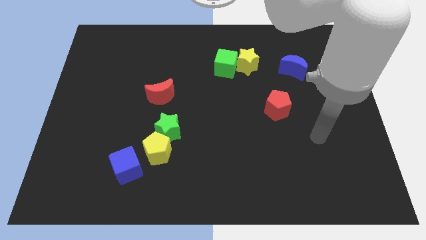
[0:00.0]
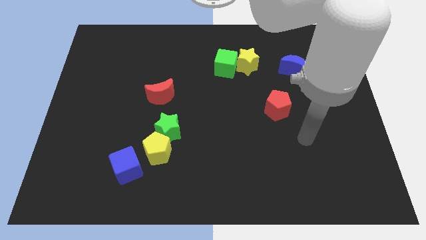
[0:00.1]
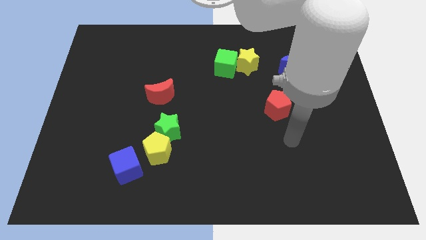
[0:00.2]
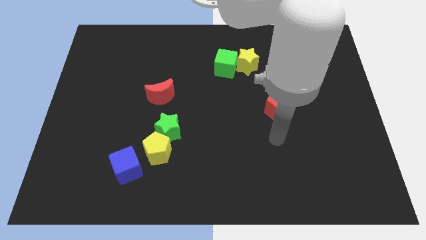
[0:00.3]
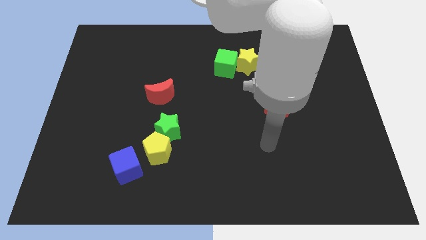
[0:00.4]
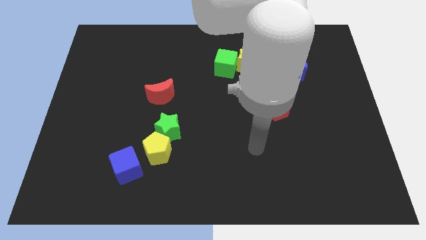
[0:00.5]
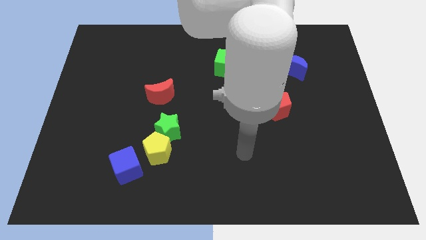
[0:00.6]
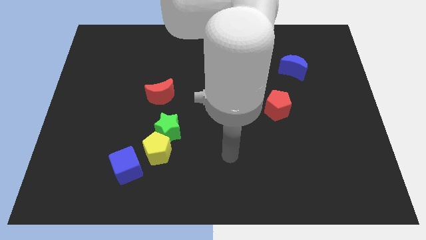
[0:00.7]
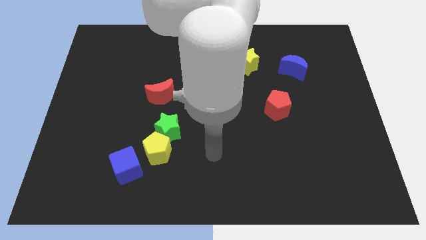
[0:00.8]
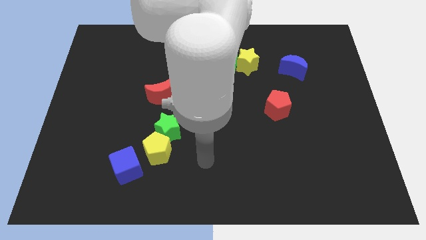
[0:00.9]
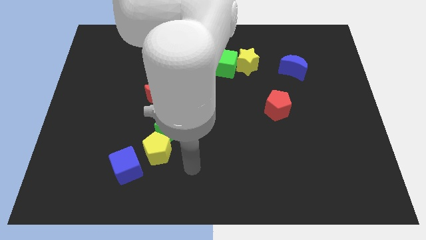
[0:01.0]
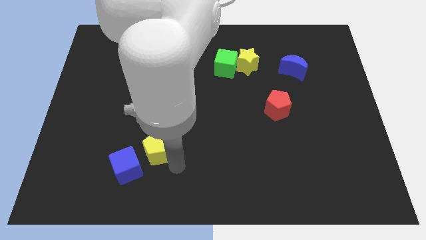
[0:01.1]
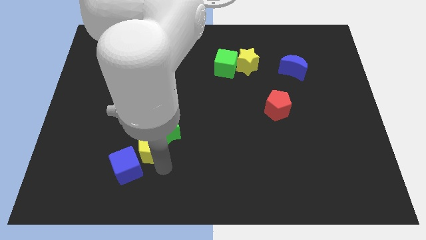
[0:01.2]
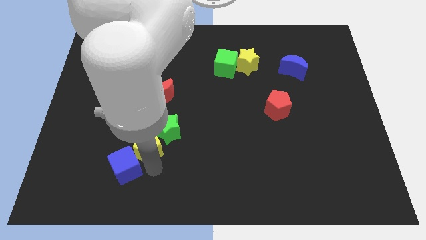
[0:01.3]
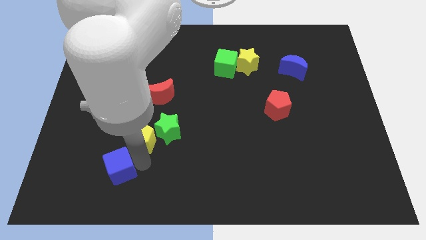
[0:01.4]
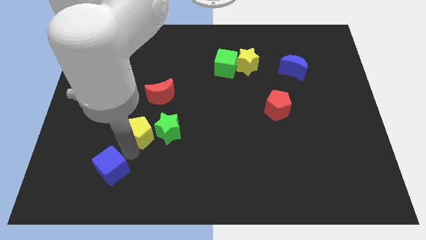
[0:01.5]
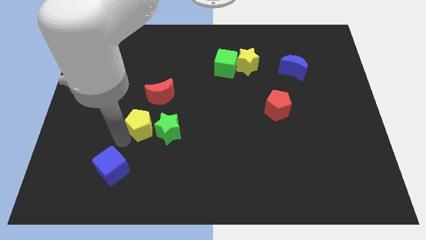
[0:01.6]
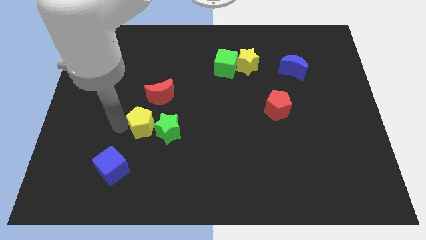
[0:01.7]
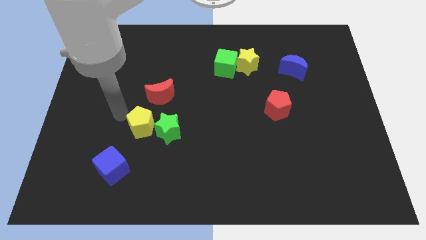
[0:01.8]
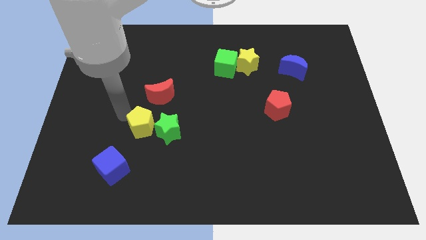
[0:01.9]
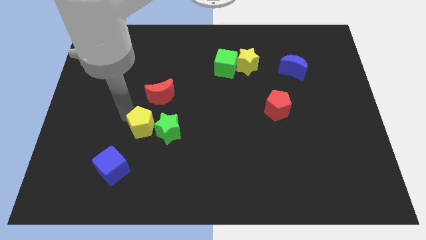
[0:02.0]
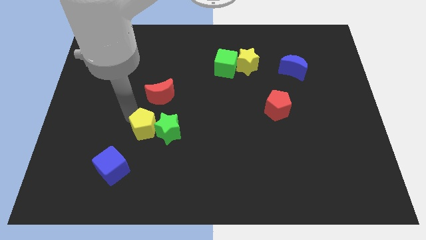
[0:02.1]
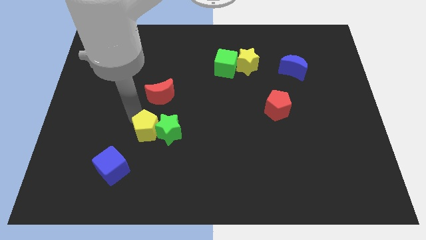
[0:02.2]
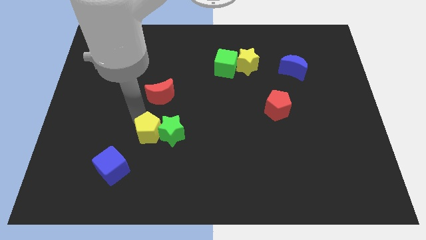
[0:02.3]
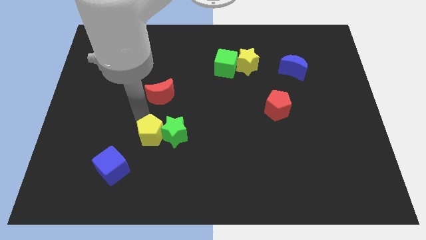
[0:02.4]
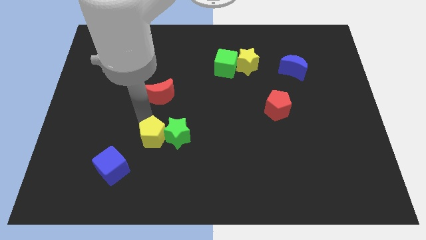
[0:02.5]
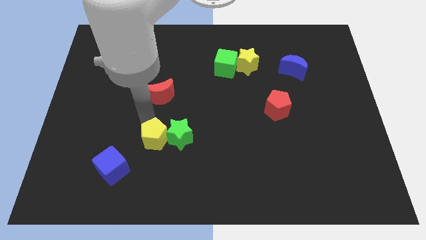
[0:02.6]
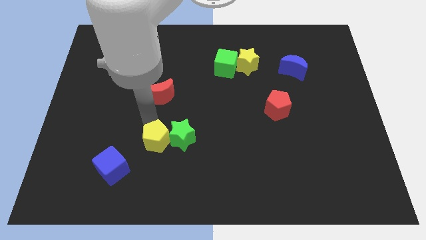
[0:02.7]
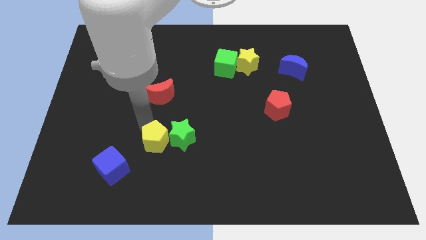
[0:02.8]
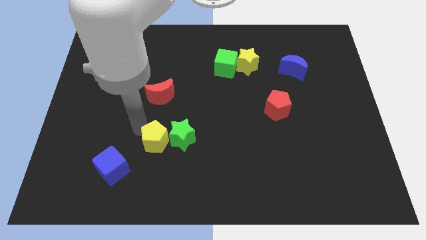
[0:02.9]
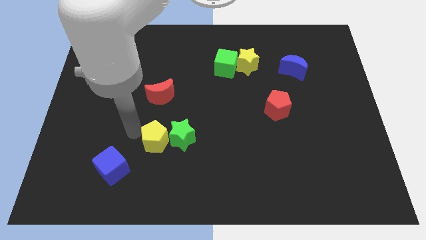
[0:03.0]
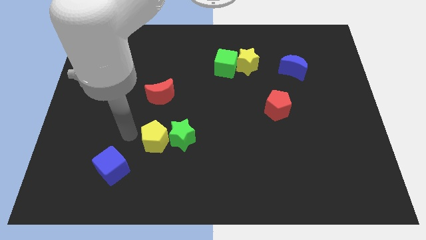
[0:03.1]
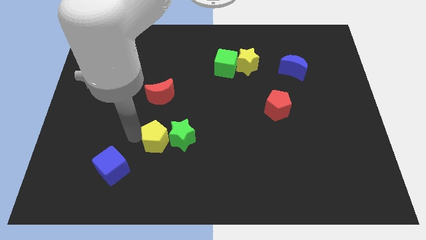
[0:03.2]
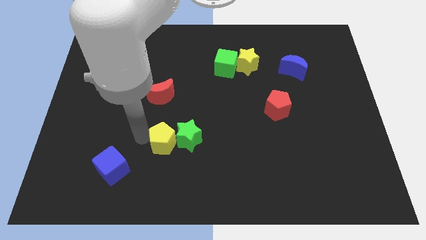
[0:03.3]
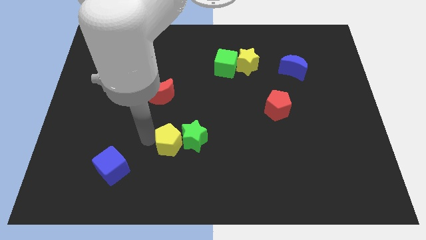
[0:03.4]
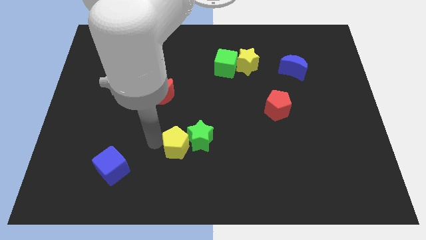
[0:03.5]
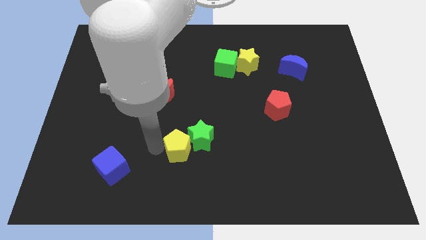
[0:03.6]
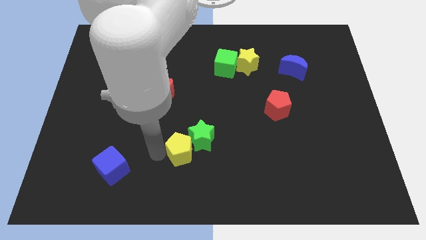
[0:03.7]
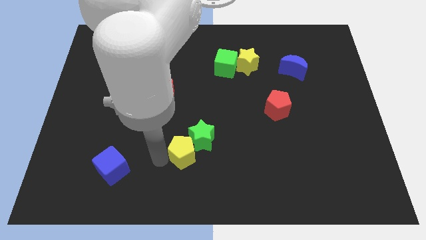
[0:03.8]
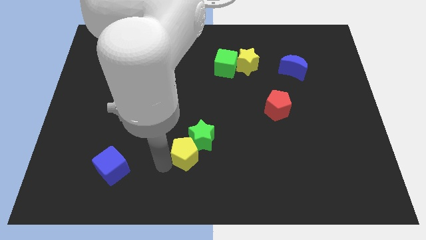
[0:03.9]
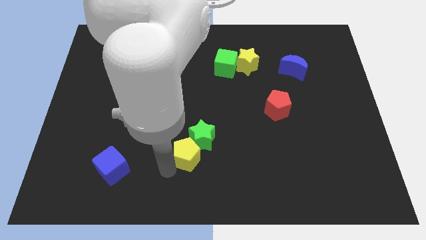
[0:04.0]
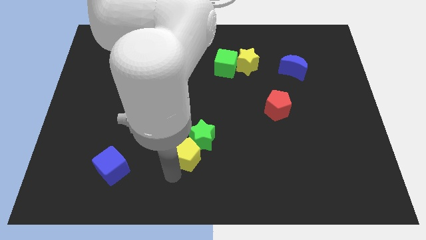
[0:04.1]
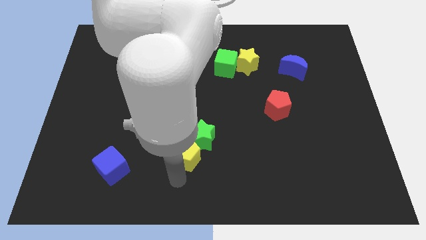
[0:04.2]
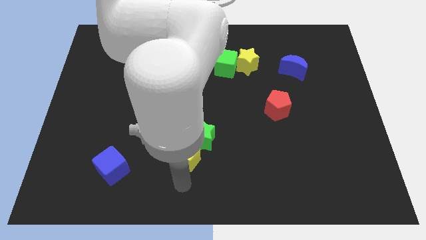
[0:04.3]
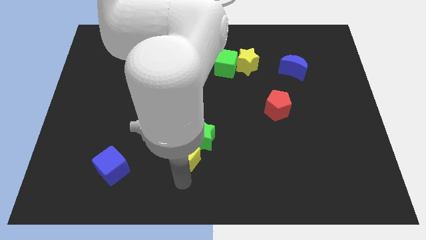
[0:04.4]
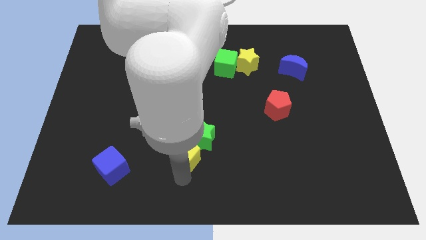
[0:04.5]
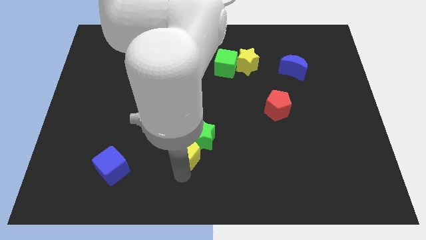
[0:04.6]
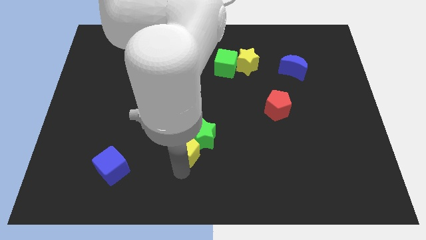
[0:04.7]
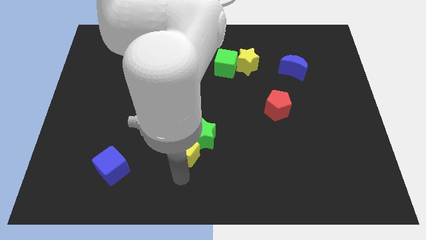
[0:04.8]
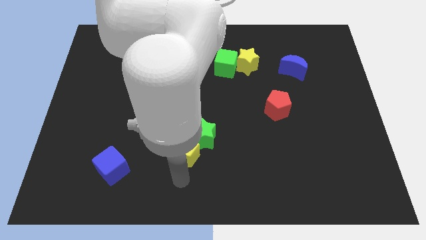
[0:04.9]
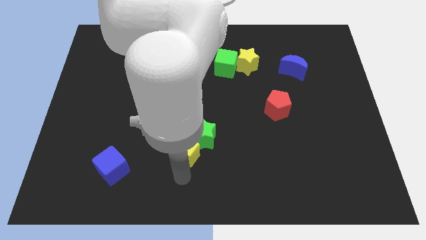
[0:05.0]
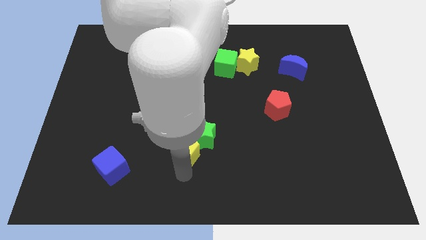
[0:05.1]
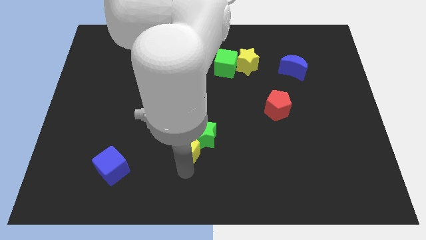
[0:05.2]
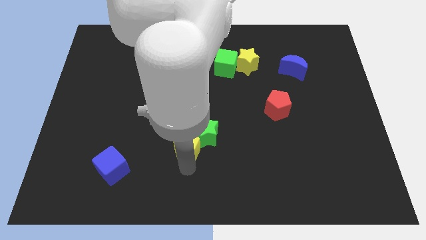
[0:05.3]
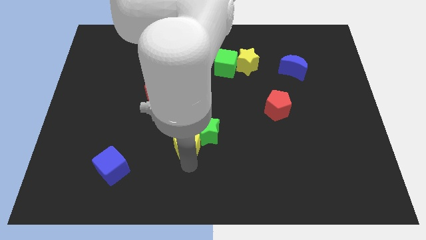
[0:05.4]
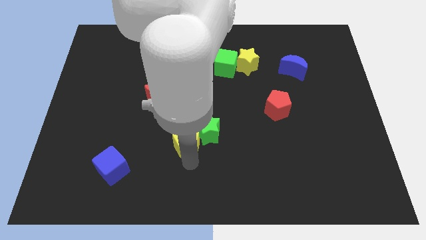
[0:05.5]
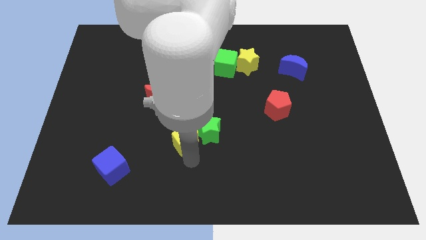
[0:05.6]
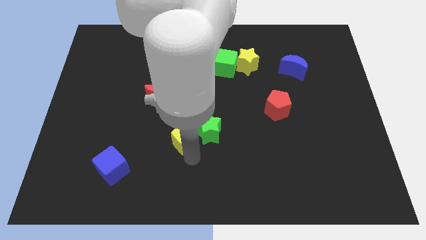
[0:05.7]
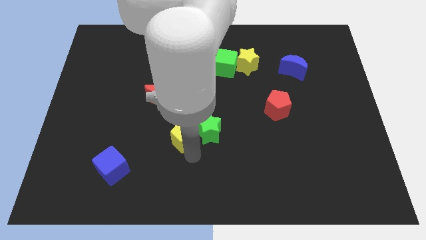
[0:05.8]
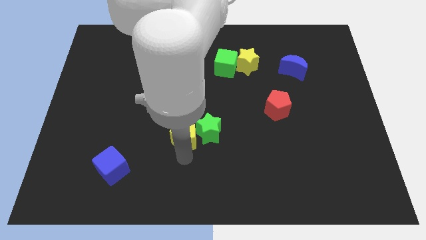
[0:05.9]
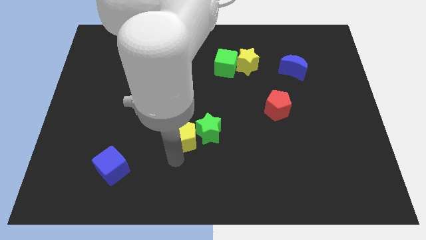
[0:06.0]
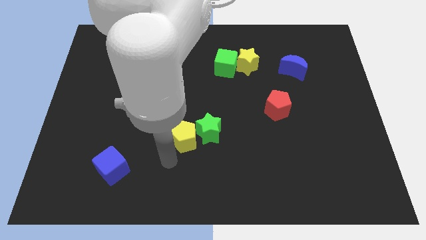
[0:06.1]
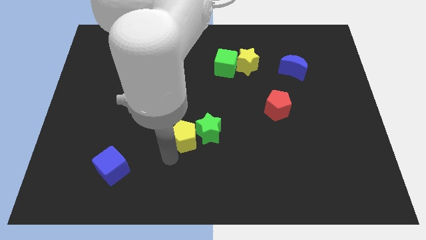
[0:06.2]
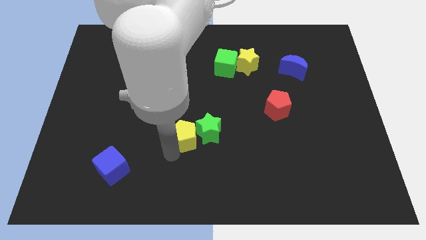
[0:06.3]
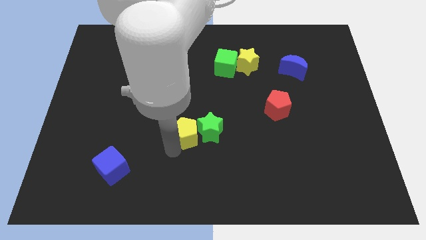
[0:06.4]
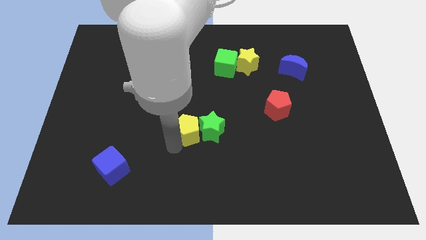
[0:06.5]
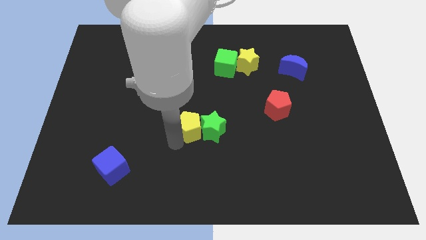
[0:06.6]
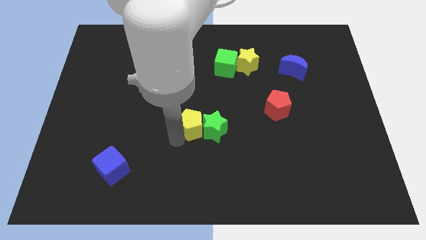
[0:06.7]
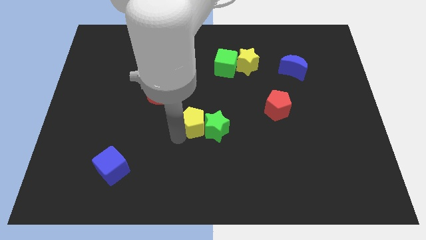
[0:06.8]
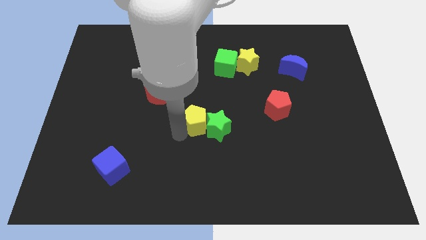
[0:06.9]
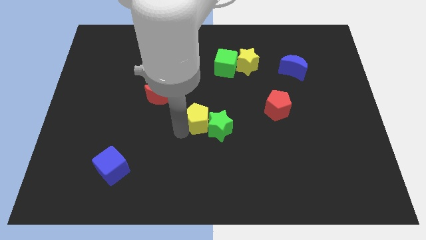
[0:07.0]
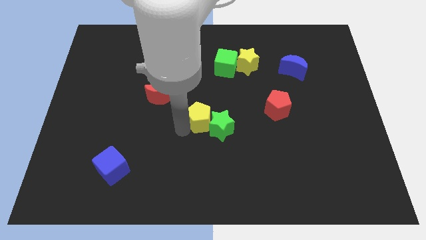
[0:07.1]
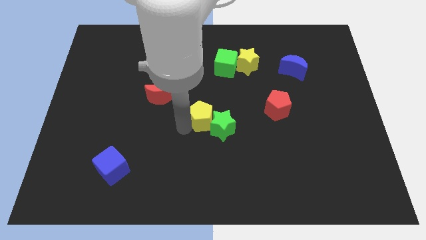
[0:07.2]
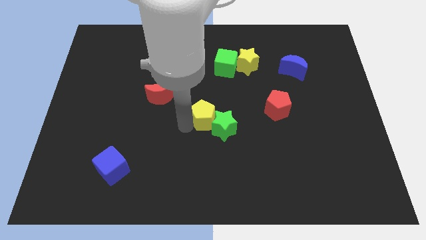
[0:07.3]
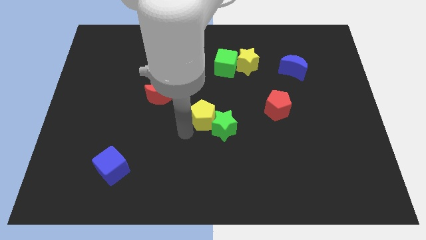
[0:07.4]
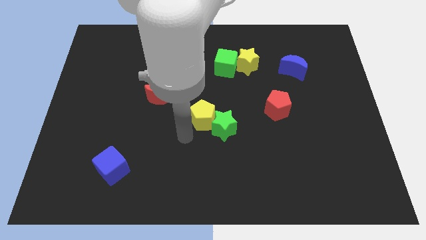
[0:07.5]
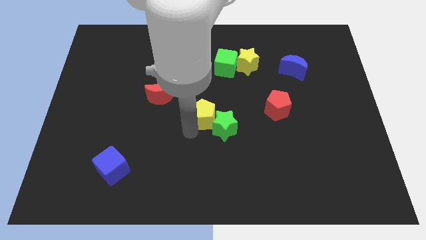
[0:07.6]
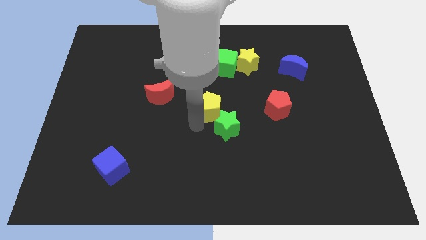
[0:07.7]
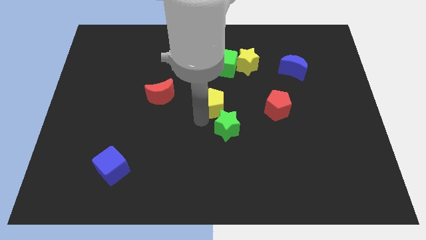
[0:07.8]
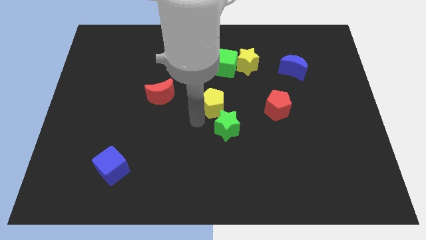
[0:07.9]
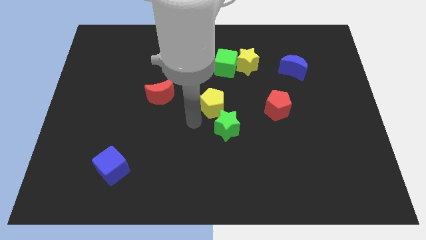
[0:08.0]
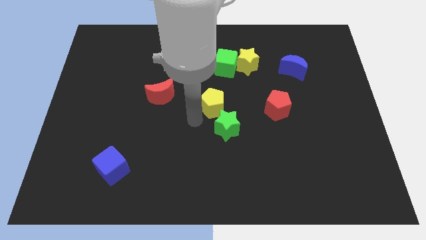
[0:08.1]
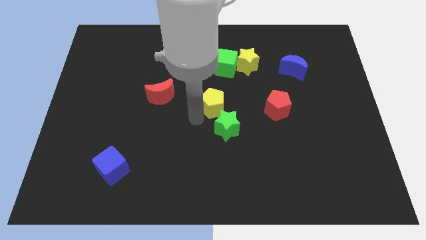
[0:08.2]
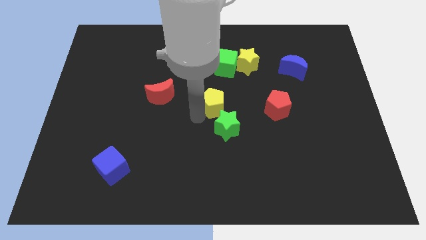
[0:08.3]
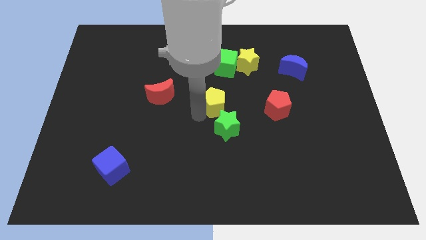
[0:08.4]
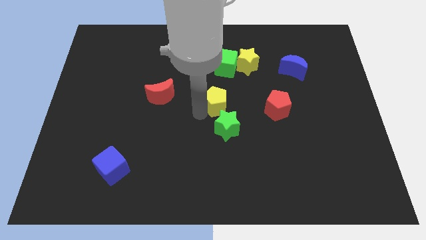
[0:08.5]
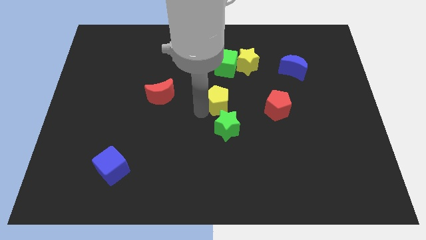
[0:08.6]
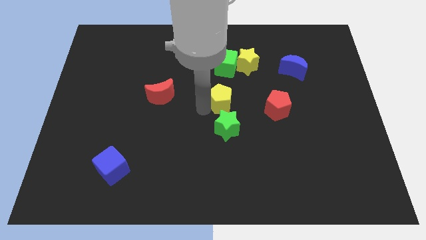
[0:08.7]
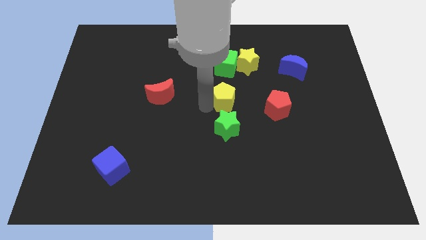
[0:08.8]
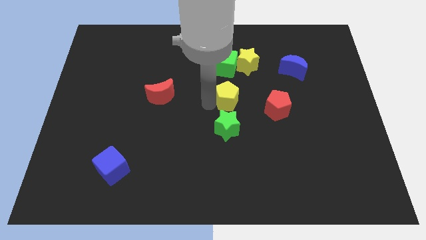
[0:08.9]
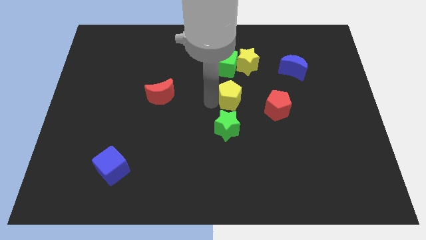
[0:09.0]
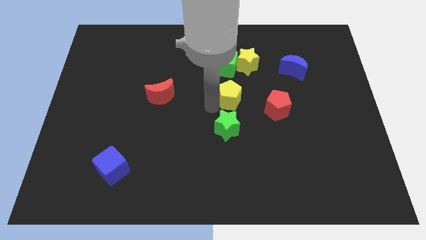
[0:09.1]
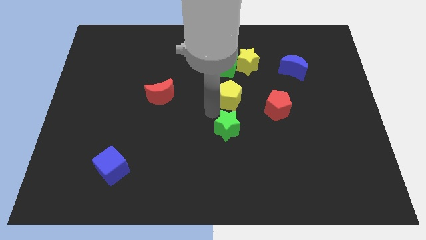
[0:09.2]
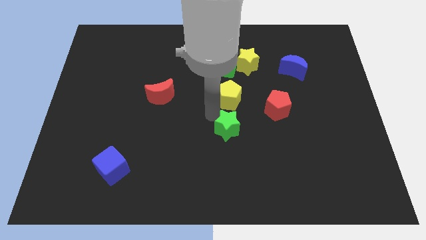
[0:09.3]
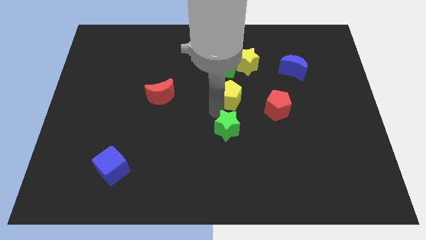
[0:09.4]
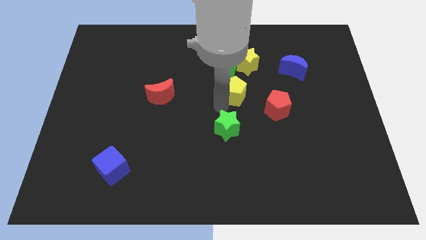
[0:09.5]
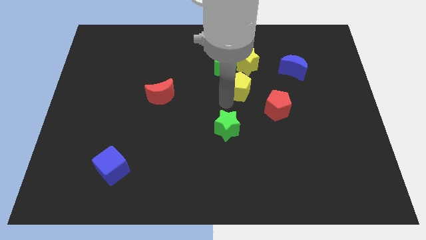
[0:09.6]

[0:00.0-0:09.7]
put the yellow pentagon to the bottom right of the green cube
